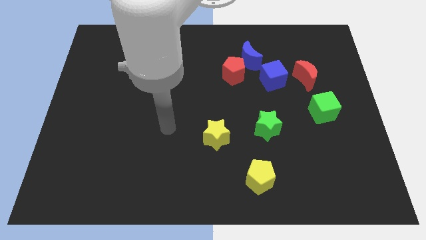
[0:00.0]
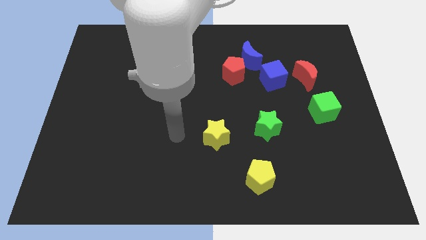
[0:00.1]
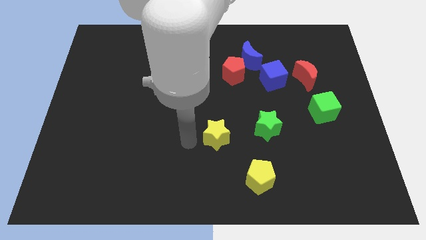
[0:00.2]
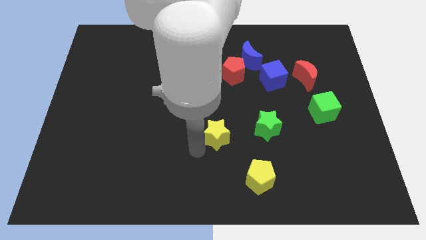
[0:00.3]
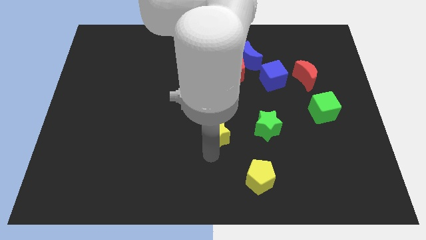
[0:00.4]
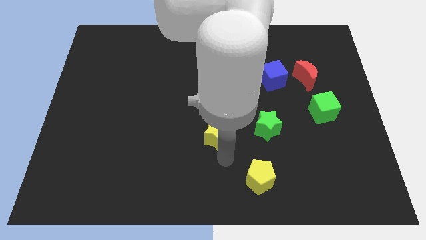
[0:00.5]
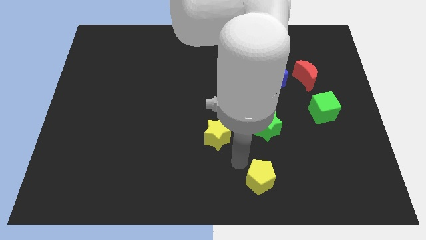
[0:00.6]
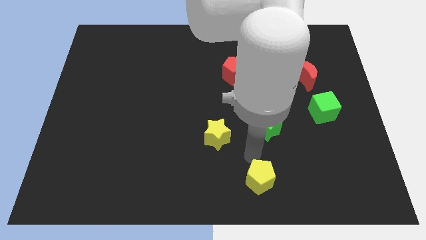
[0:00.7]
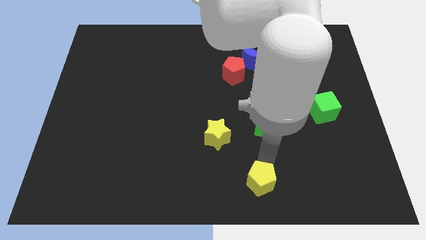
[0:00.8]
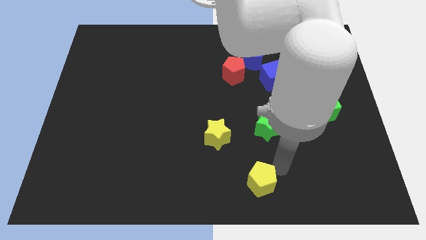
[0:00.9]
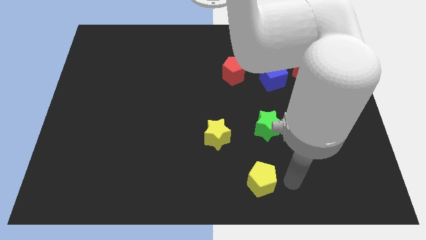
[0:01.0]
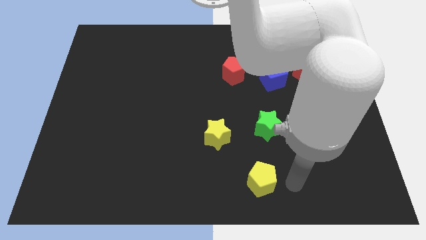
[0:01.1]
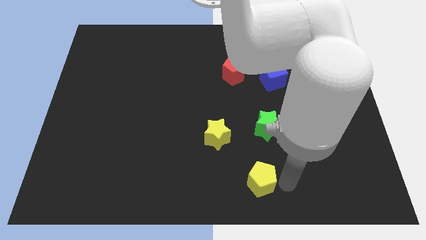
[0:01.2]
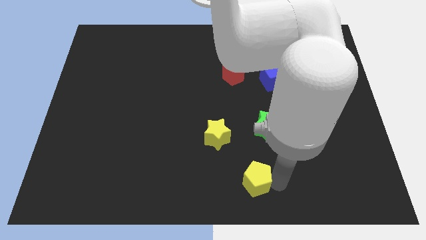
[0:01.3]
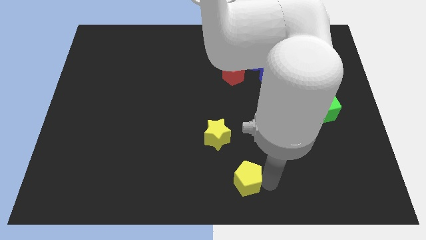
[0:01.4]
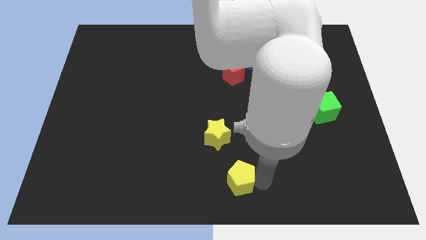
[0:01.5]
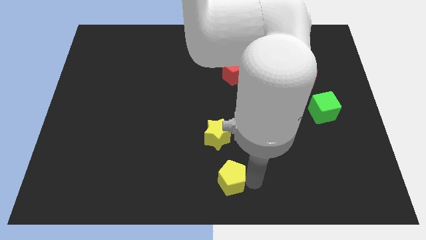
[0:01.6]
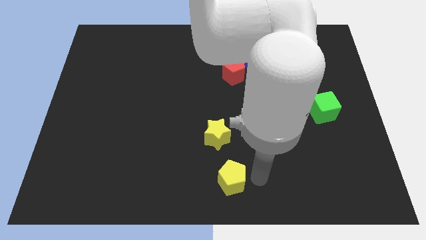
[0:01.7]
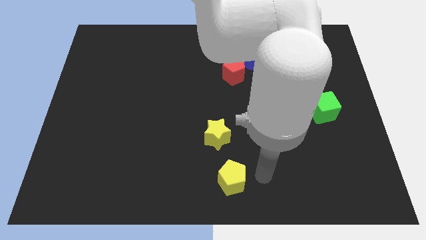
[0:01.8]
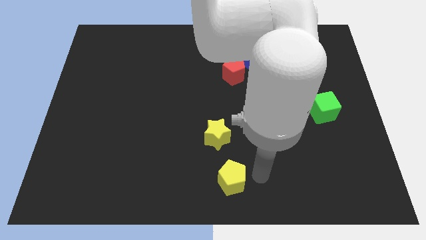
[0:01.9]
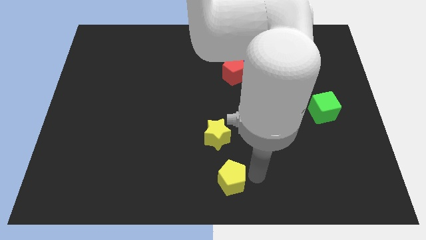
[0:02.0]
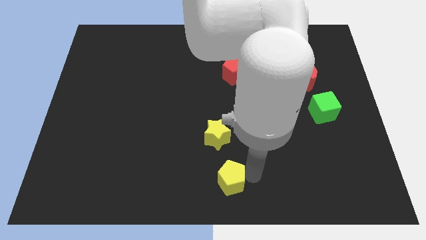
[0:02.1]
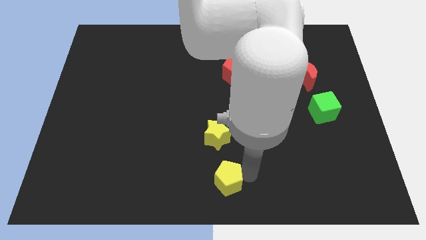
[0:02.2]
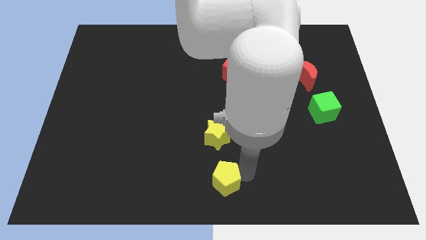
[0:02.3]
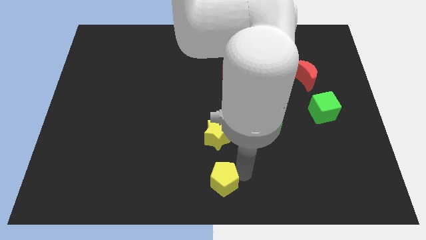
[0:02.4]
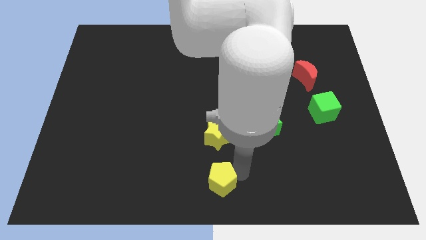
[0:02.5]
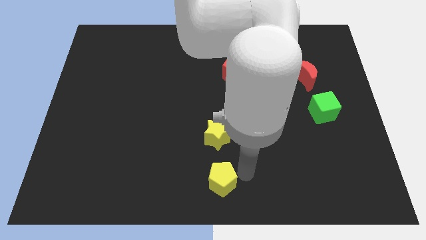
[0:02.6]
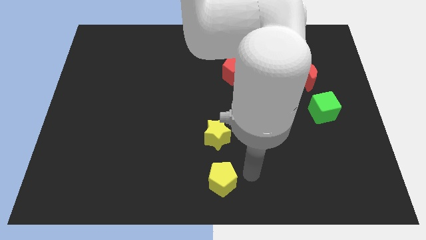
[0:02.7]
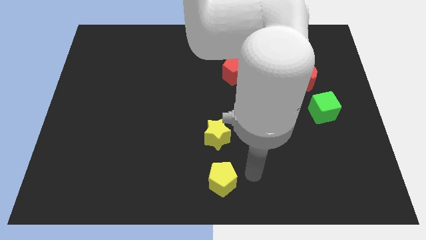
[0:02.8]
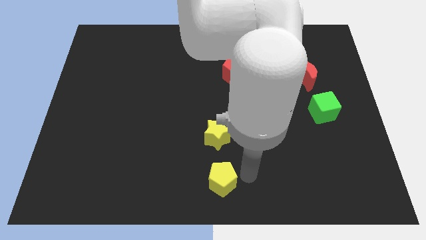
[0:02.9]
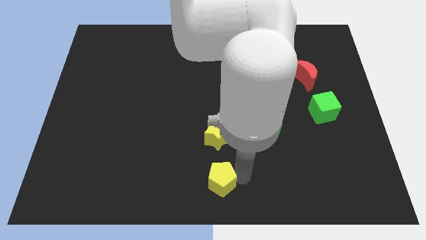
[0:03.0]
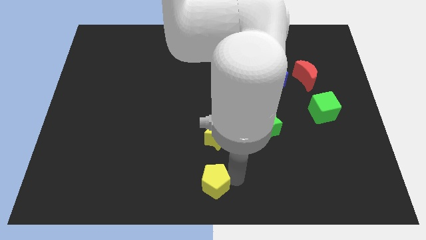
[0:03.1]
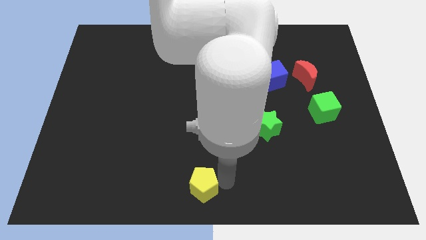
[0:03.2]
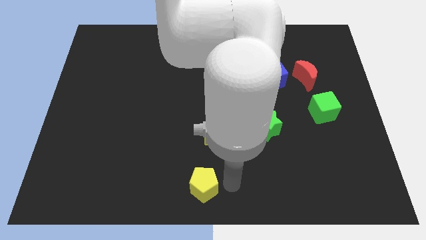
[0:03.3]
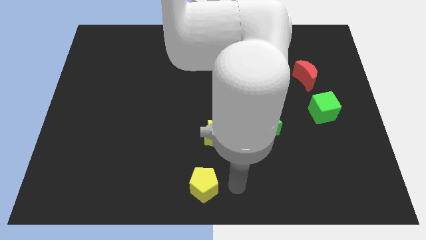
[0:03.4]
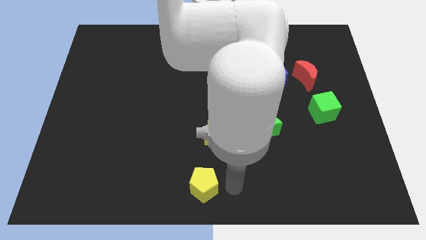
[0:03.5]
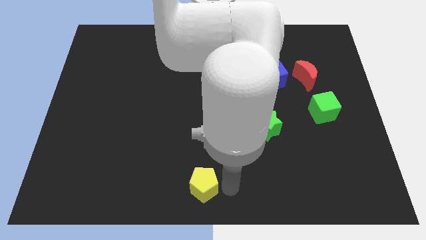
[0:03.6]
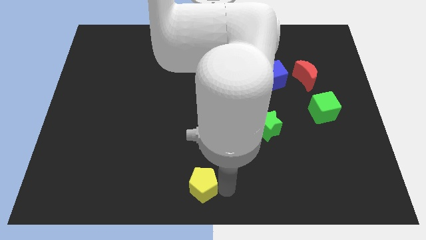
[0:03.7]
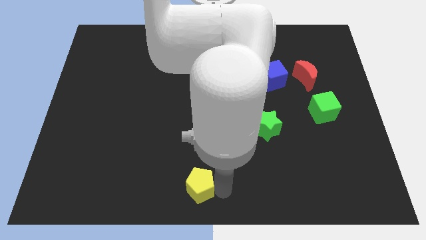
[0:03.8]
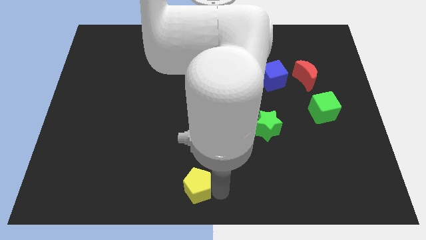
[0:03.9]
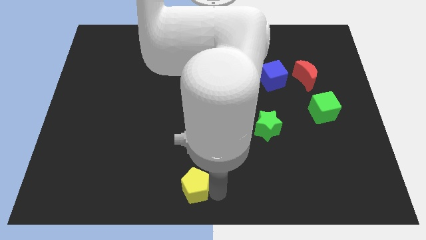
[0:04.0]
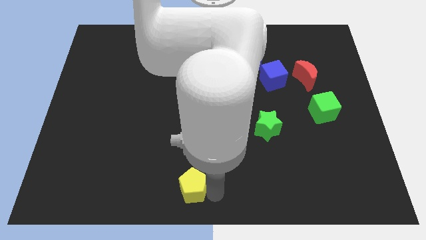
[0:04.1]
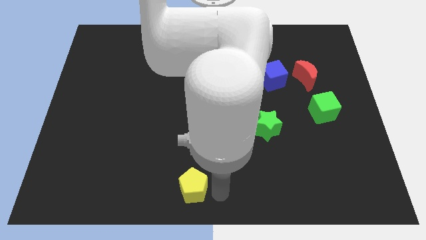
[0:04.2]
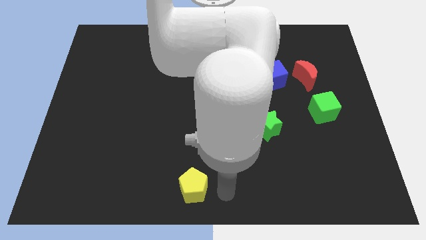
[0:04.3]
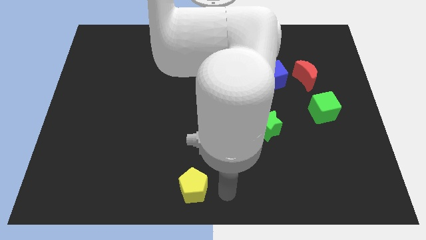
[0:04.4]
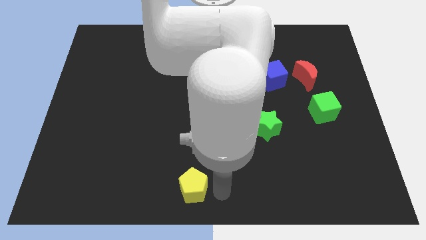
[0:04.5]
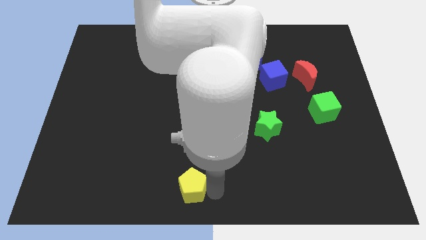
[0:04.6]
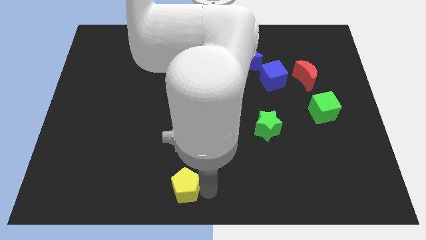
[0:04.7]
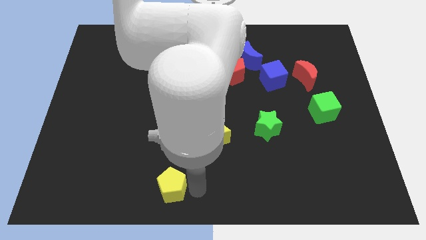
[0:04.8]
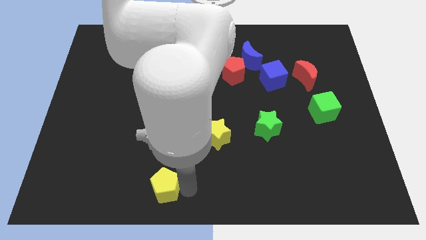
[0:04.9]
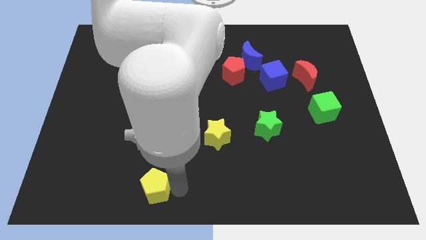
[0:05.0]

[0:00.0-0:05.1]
push the yellow pentagon left

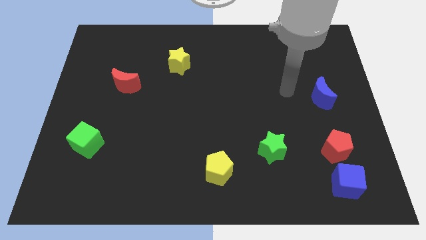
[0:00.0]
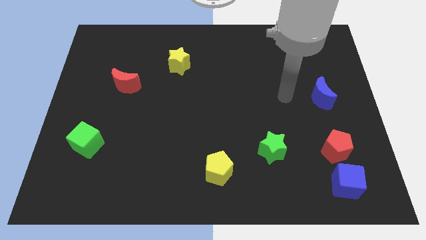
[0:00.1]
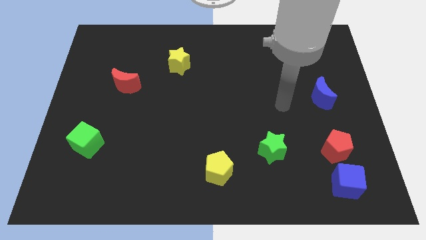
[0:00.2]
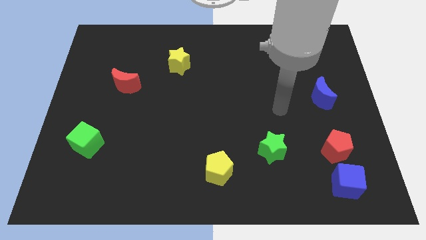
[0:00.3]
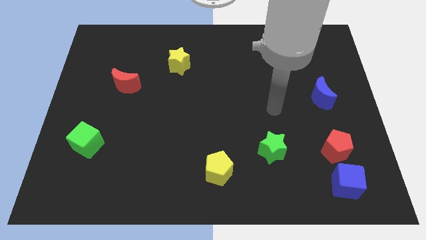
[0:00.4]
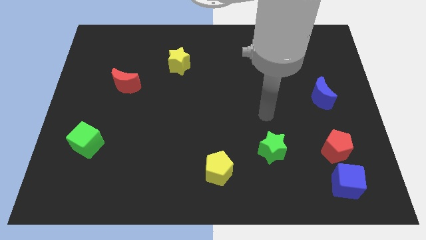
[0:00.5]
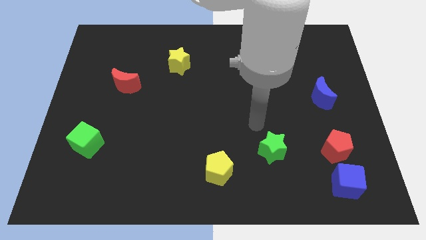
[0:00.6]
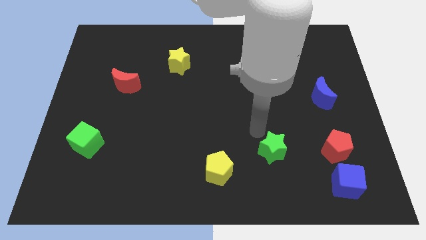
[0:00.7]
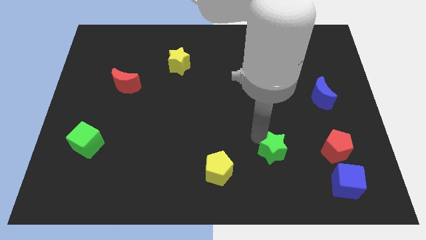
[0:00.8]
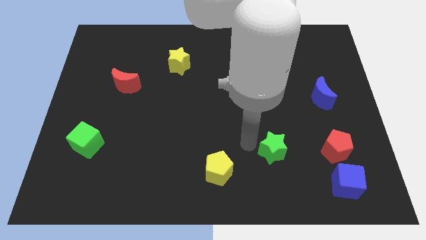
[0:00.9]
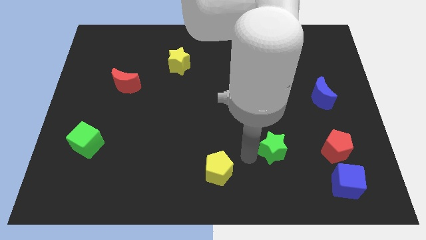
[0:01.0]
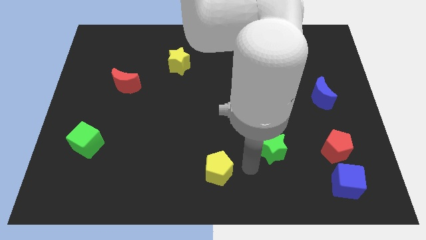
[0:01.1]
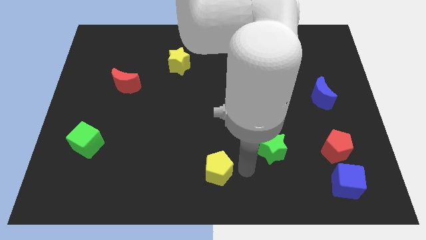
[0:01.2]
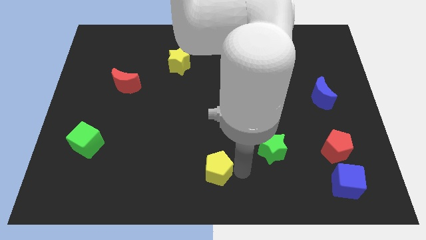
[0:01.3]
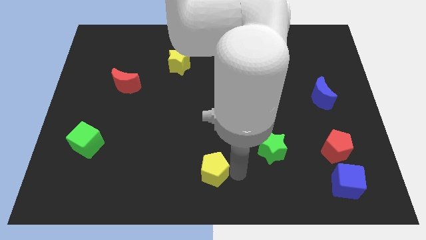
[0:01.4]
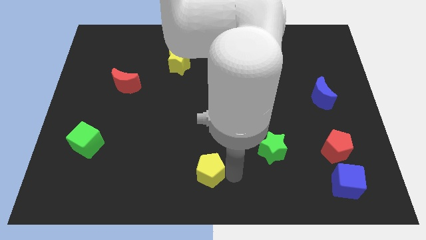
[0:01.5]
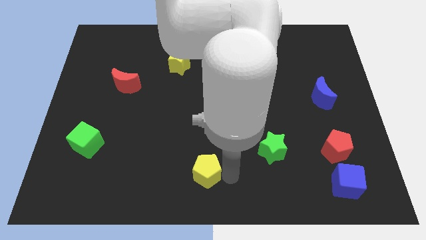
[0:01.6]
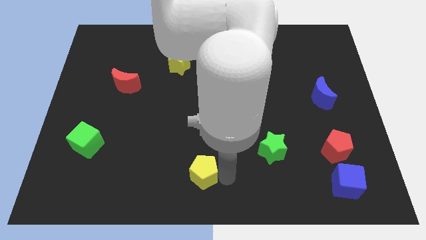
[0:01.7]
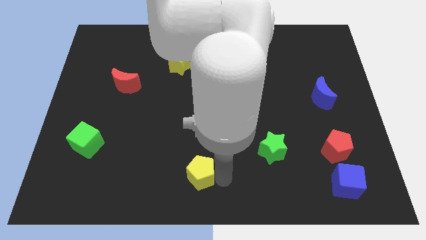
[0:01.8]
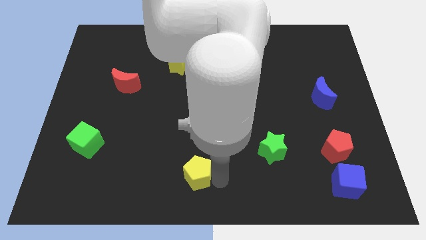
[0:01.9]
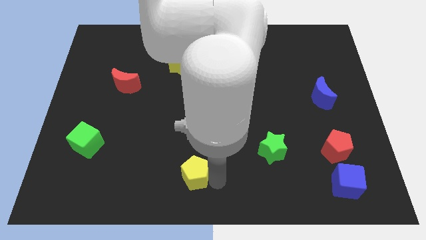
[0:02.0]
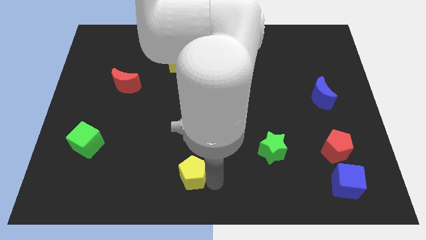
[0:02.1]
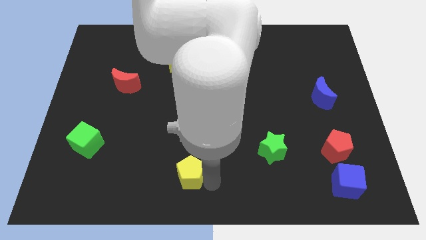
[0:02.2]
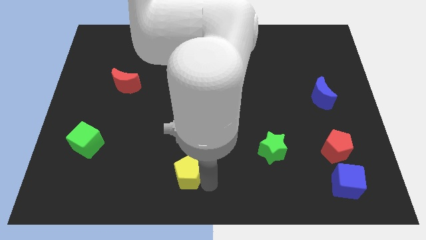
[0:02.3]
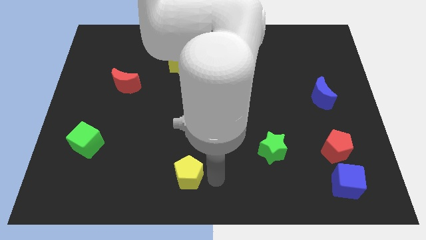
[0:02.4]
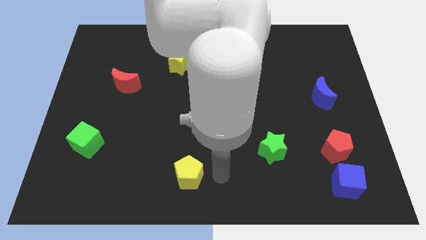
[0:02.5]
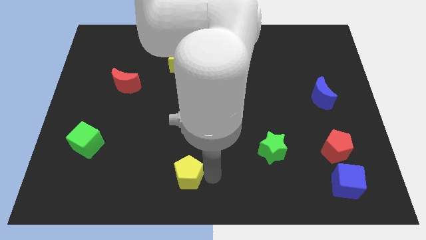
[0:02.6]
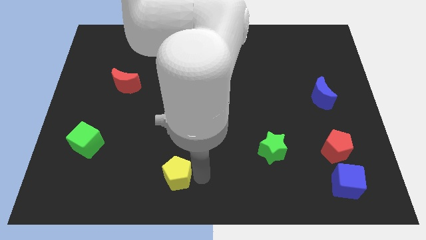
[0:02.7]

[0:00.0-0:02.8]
slightly push the yellow pentagon to the left

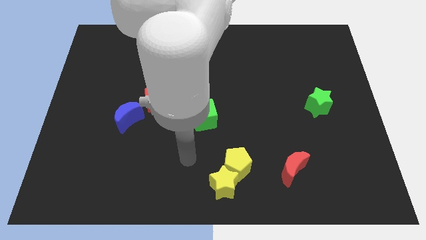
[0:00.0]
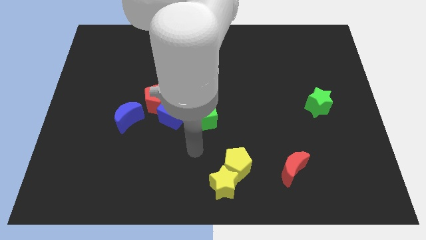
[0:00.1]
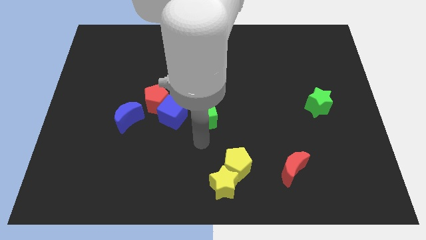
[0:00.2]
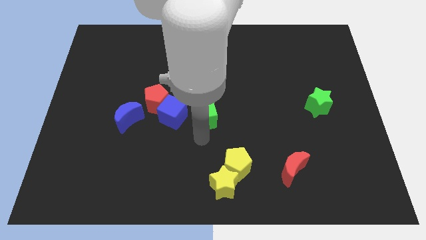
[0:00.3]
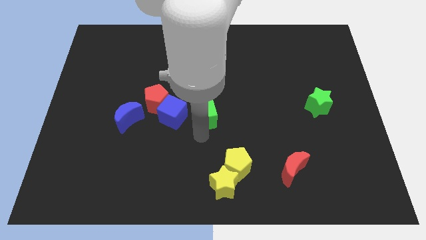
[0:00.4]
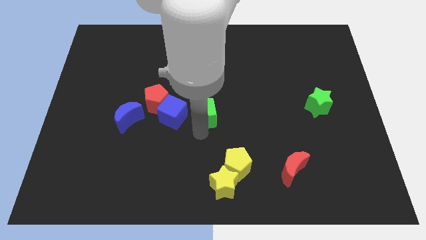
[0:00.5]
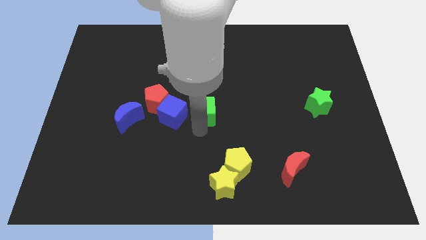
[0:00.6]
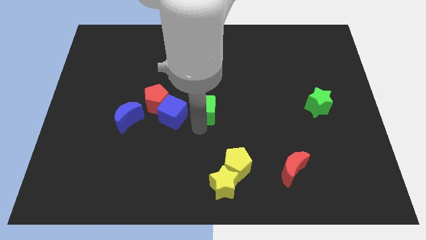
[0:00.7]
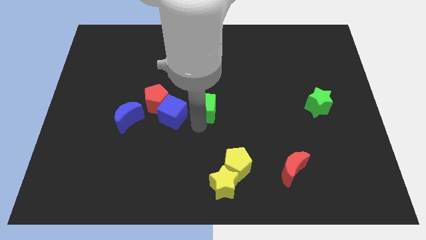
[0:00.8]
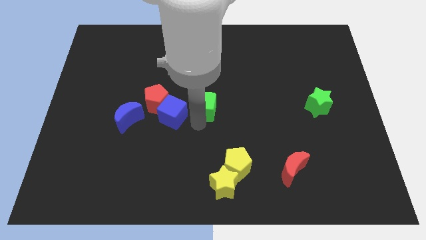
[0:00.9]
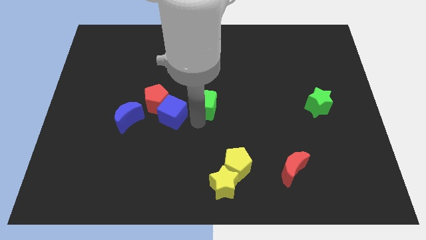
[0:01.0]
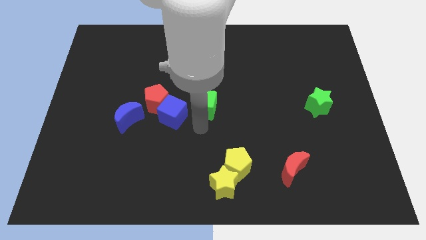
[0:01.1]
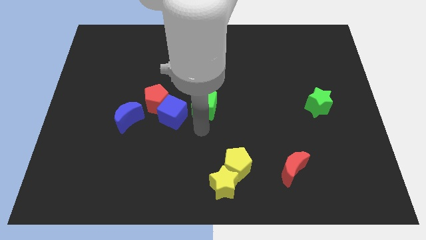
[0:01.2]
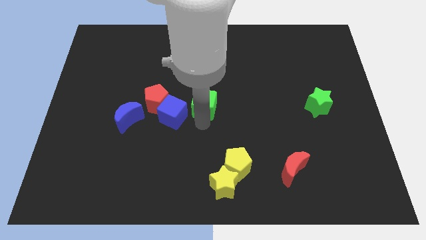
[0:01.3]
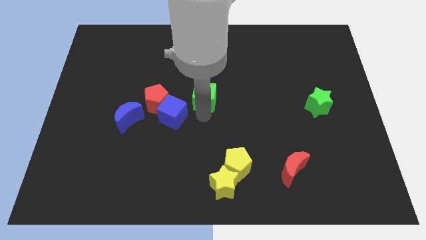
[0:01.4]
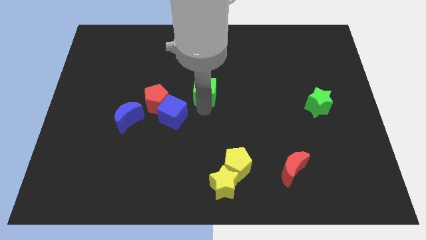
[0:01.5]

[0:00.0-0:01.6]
push the green cube upwards slightly
